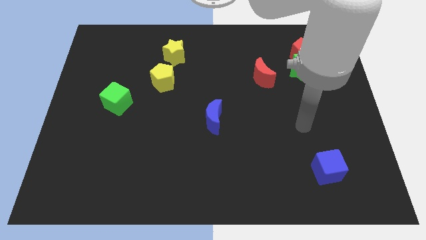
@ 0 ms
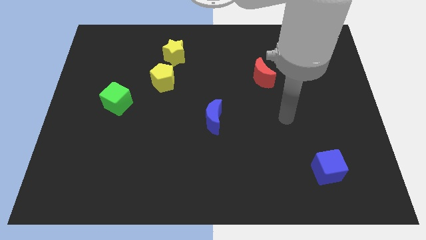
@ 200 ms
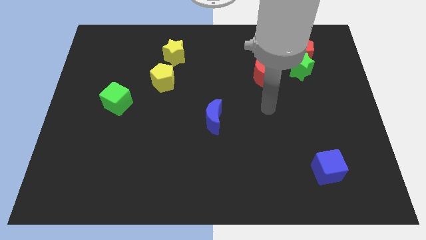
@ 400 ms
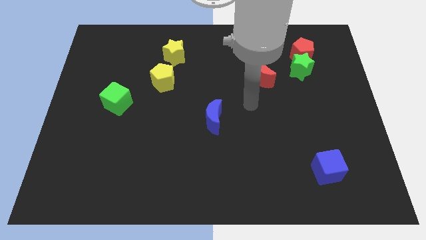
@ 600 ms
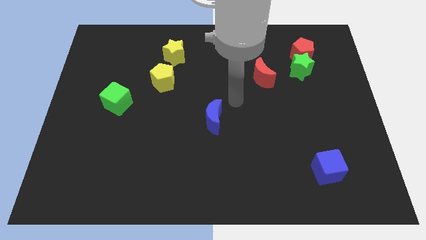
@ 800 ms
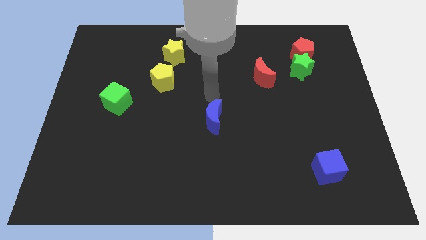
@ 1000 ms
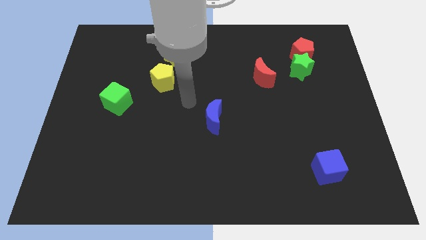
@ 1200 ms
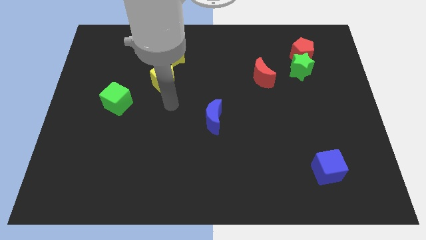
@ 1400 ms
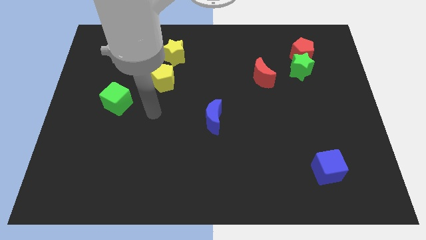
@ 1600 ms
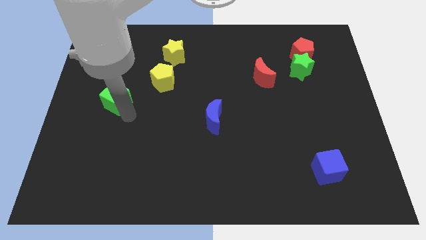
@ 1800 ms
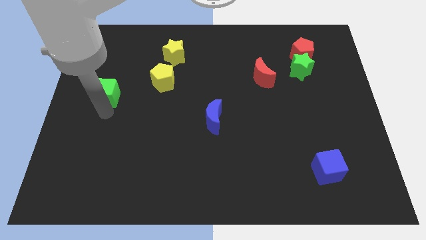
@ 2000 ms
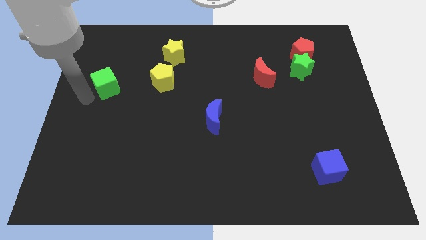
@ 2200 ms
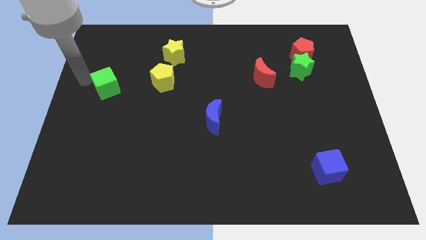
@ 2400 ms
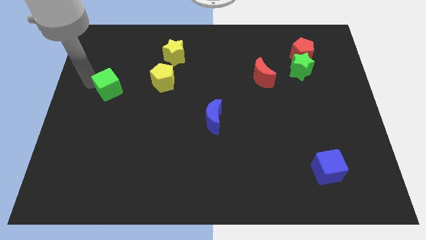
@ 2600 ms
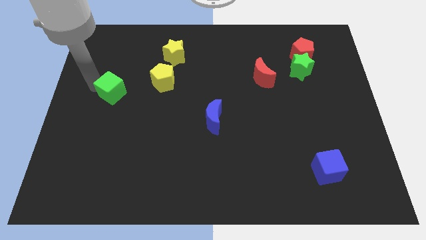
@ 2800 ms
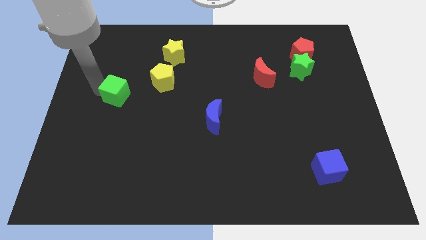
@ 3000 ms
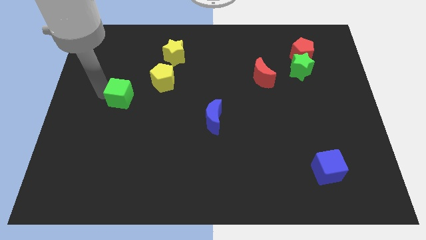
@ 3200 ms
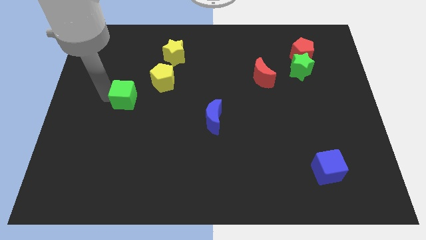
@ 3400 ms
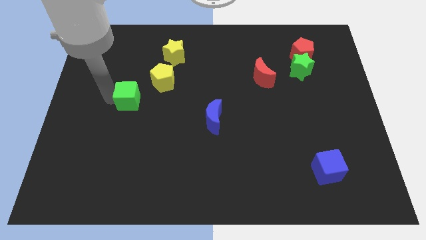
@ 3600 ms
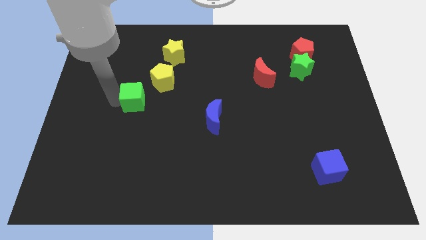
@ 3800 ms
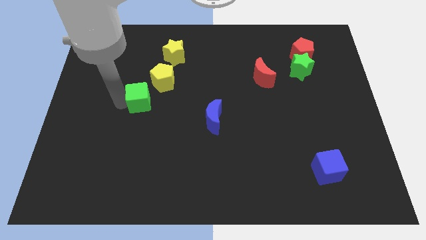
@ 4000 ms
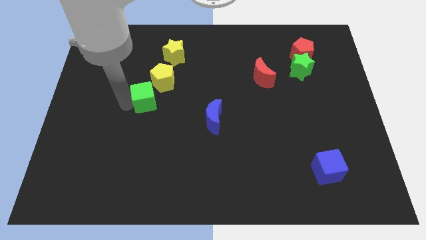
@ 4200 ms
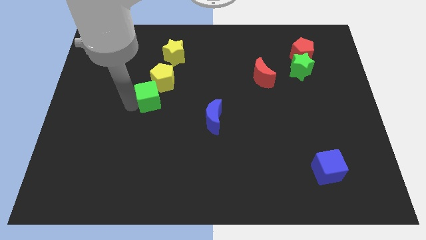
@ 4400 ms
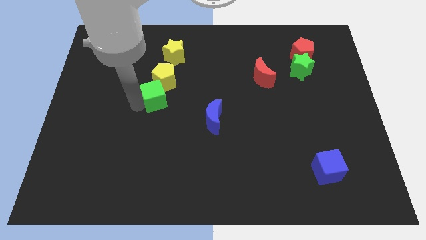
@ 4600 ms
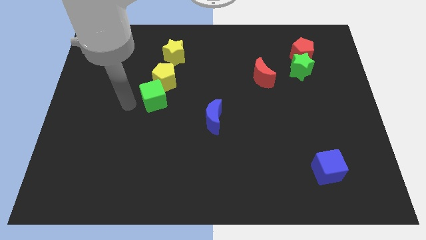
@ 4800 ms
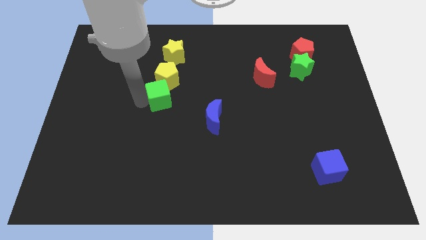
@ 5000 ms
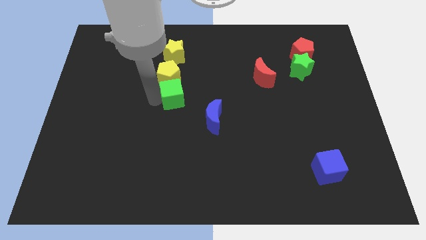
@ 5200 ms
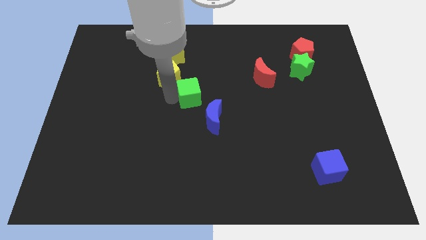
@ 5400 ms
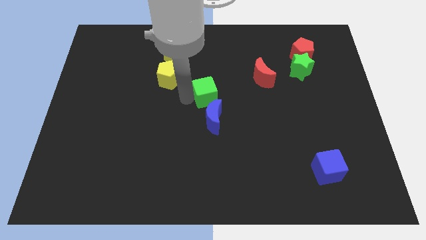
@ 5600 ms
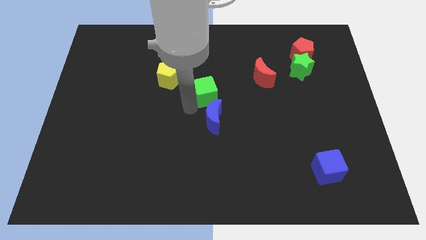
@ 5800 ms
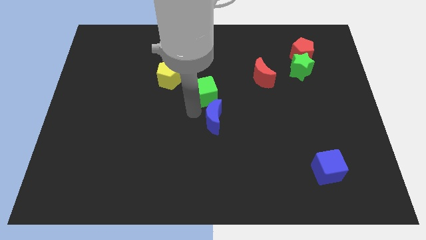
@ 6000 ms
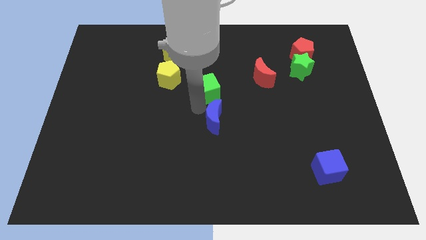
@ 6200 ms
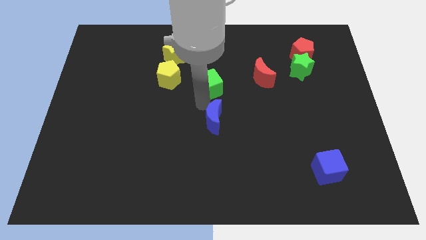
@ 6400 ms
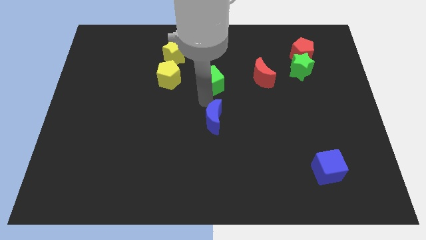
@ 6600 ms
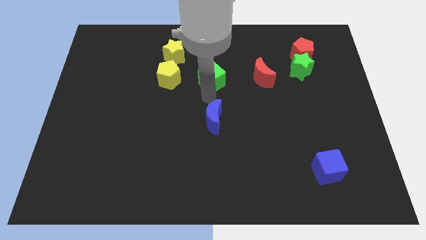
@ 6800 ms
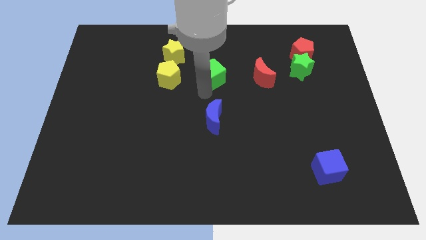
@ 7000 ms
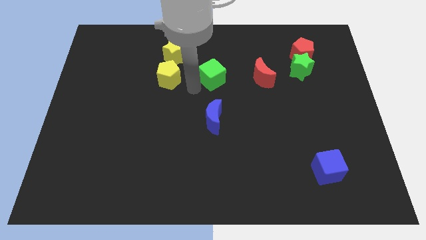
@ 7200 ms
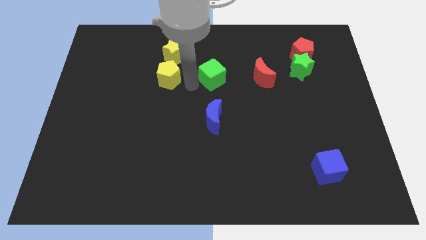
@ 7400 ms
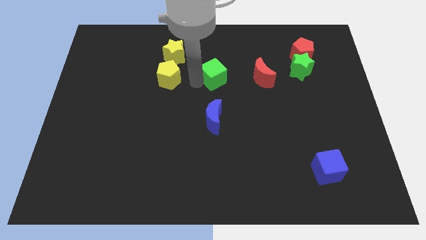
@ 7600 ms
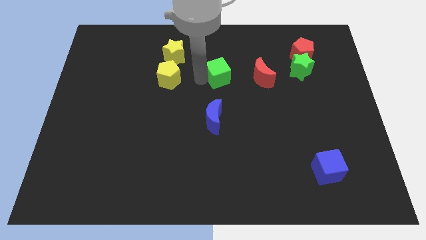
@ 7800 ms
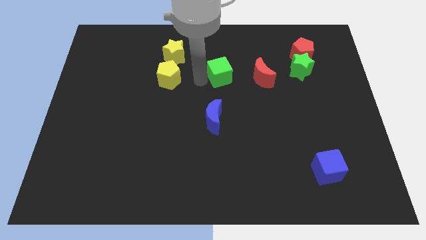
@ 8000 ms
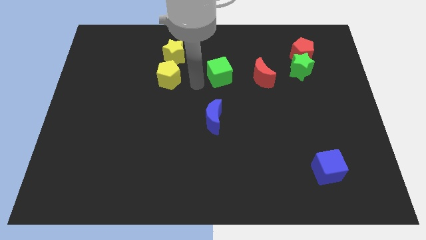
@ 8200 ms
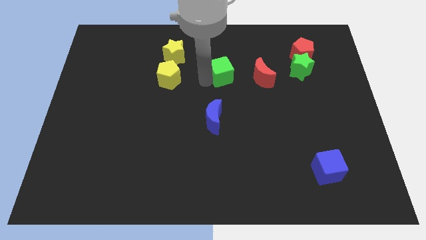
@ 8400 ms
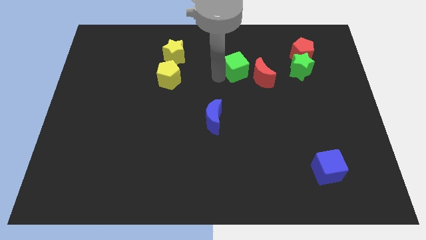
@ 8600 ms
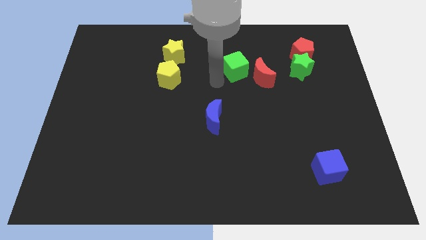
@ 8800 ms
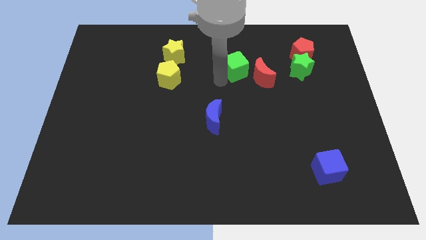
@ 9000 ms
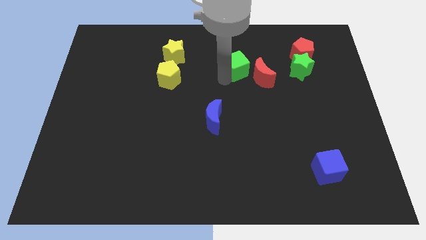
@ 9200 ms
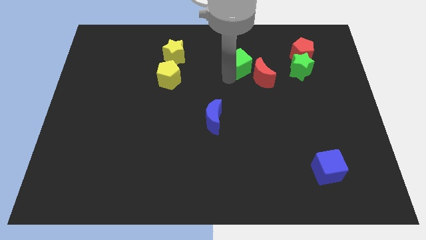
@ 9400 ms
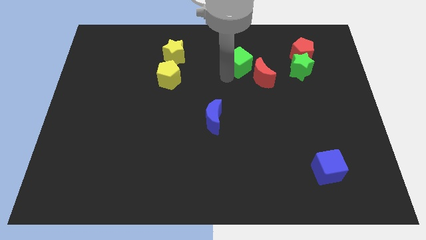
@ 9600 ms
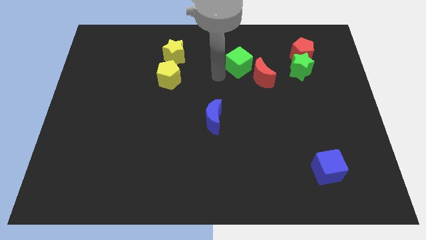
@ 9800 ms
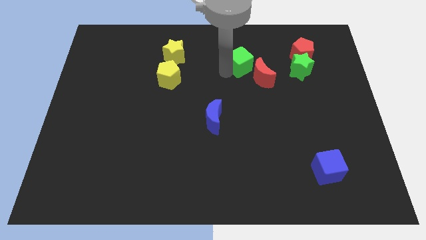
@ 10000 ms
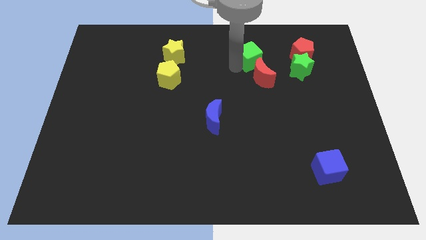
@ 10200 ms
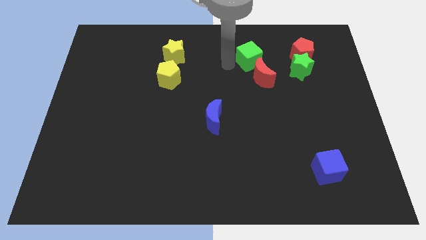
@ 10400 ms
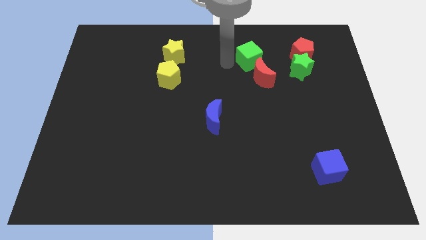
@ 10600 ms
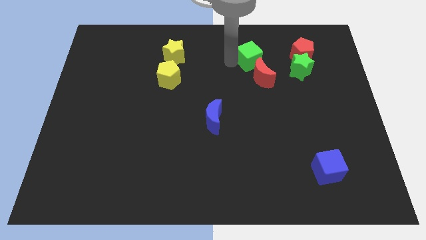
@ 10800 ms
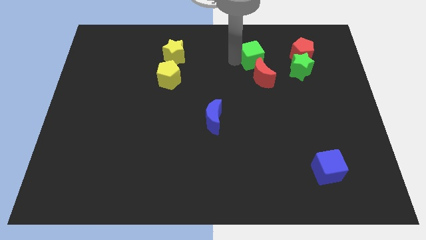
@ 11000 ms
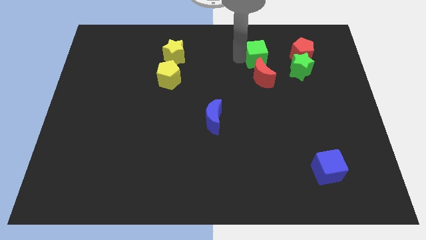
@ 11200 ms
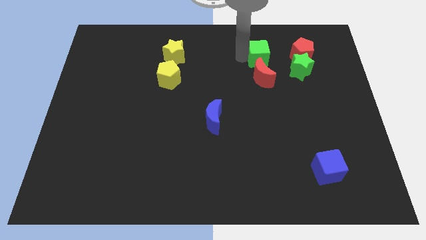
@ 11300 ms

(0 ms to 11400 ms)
slide the green cube diagonally up and to the left of the green star

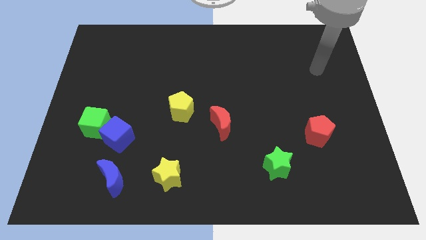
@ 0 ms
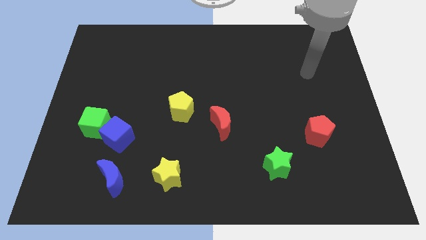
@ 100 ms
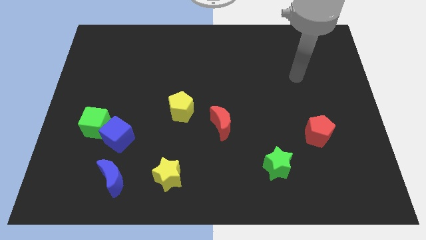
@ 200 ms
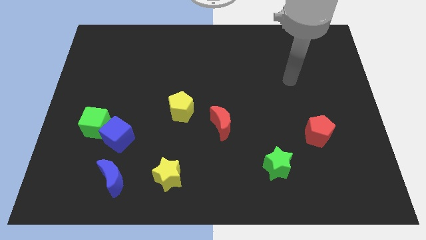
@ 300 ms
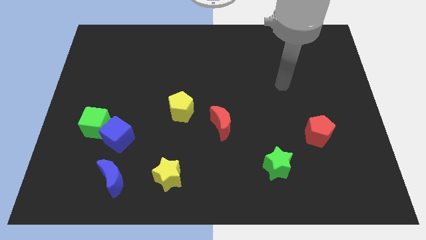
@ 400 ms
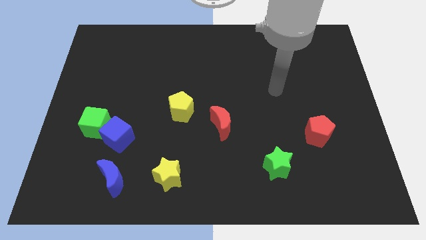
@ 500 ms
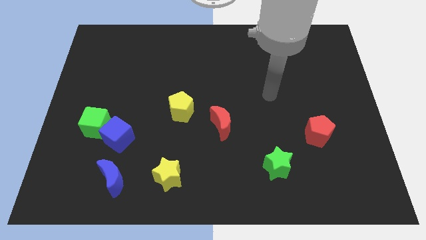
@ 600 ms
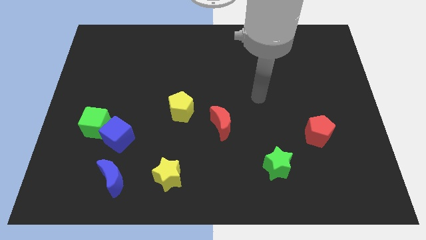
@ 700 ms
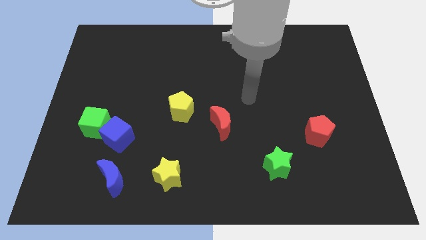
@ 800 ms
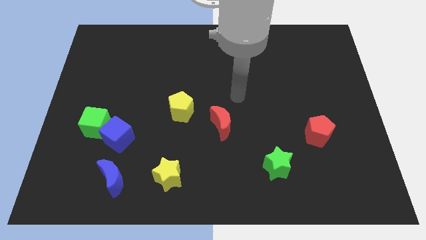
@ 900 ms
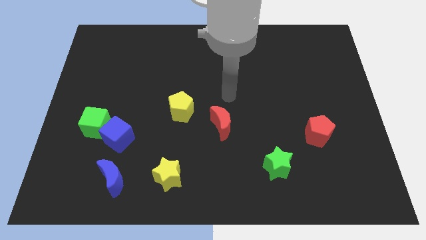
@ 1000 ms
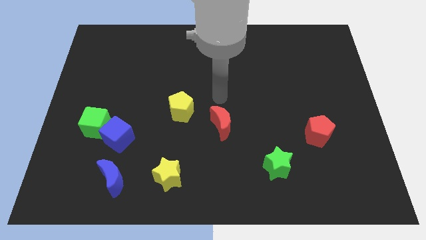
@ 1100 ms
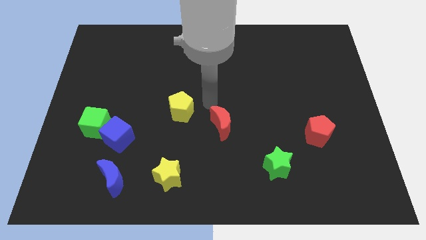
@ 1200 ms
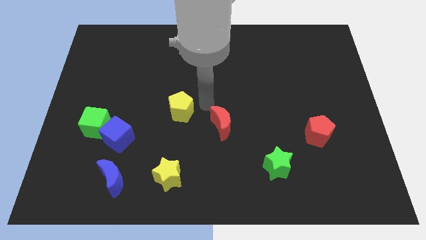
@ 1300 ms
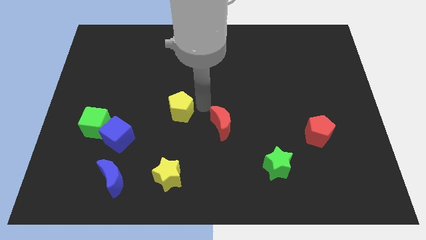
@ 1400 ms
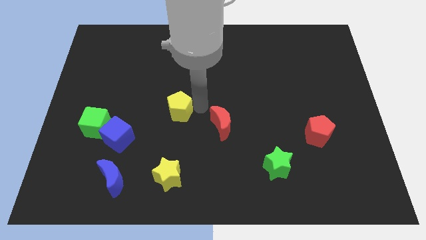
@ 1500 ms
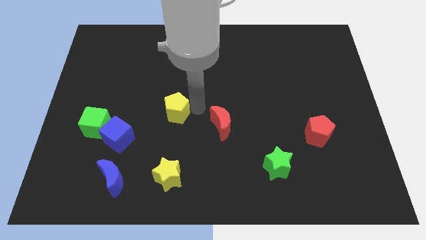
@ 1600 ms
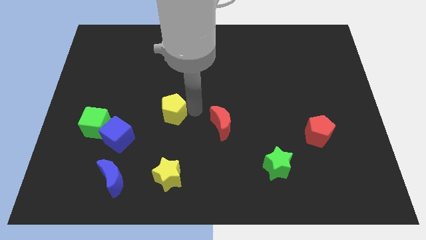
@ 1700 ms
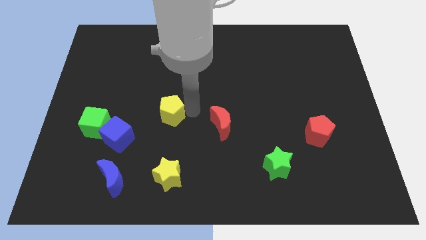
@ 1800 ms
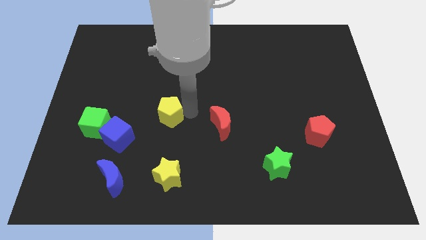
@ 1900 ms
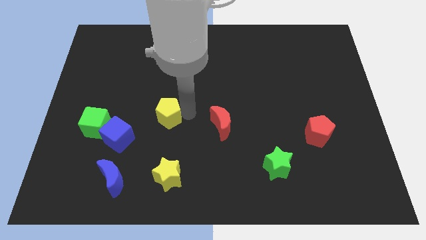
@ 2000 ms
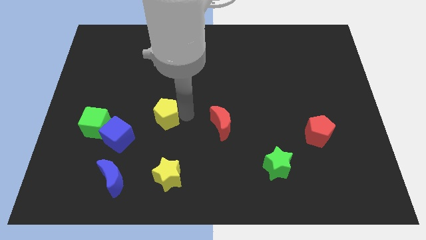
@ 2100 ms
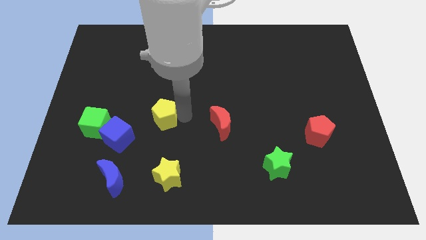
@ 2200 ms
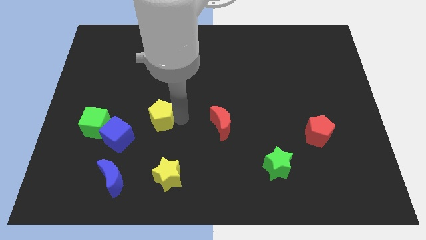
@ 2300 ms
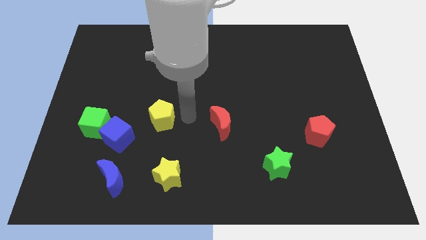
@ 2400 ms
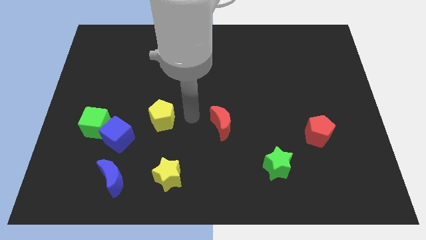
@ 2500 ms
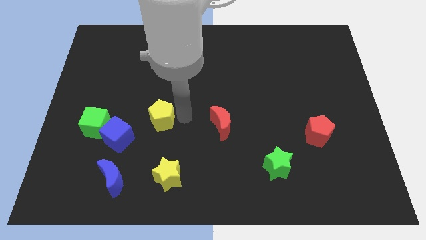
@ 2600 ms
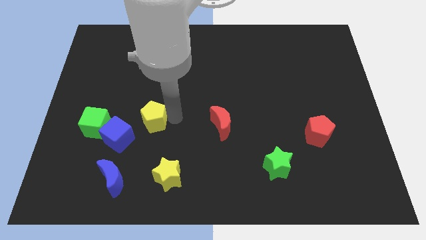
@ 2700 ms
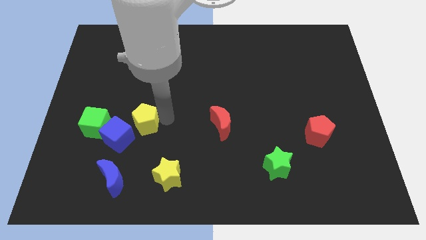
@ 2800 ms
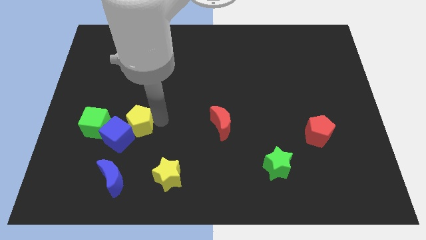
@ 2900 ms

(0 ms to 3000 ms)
move the yellow pentagon above the blue moon
